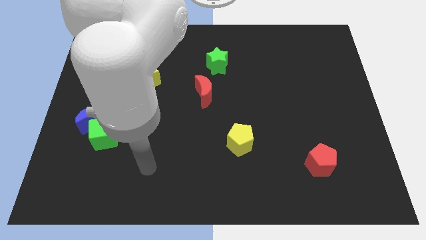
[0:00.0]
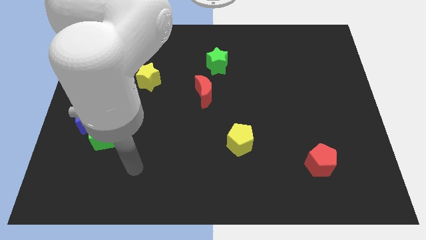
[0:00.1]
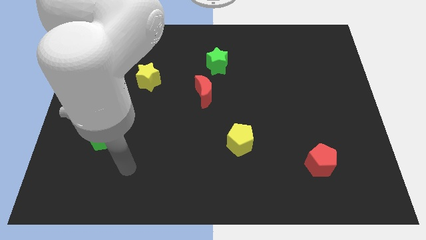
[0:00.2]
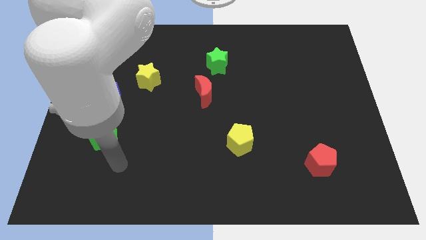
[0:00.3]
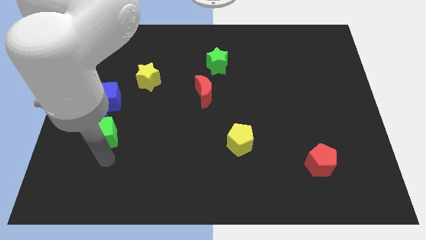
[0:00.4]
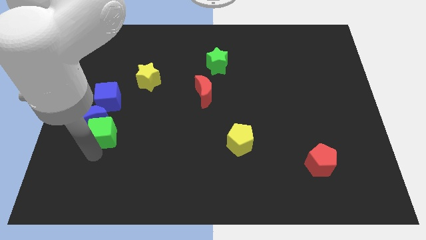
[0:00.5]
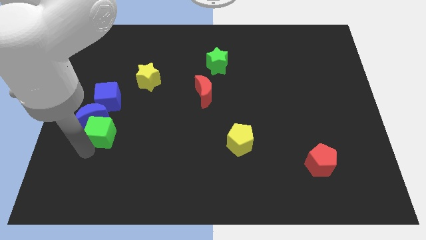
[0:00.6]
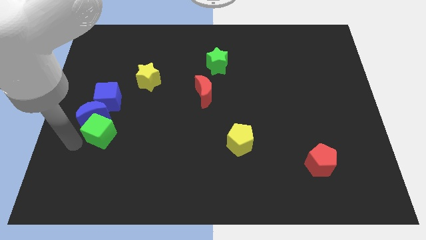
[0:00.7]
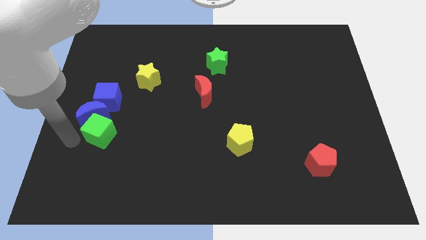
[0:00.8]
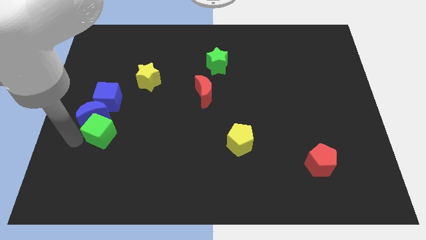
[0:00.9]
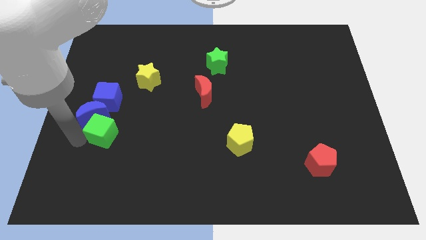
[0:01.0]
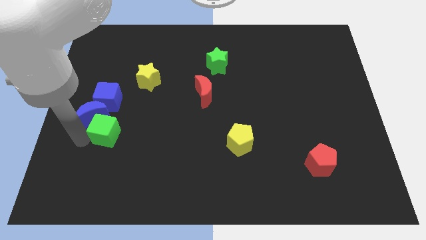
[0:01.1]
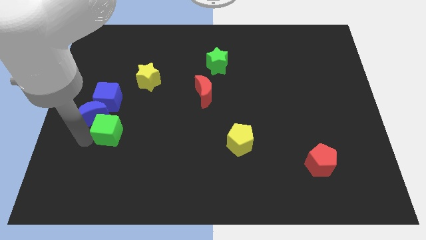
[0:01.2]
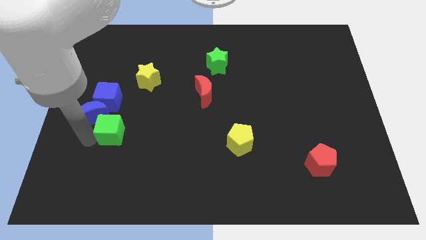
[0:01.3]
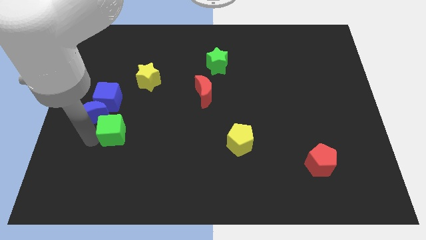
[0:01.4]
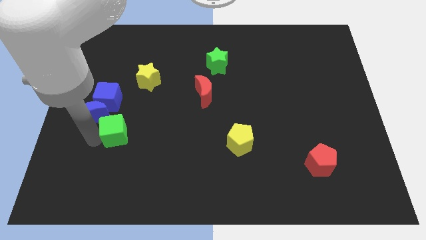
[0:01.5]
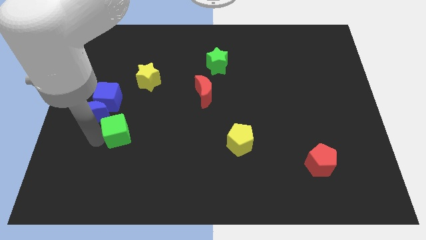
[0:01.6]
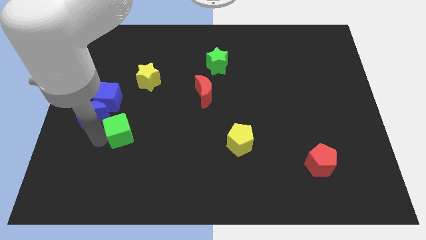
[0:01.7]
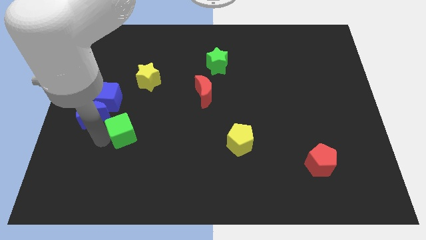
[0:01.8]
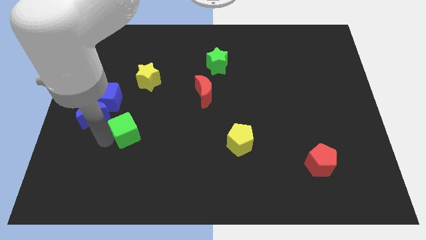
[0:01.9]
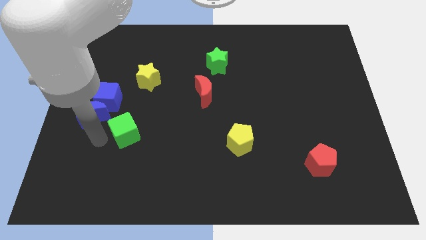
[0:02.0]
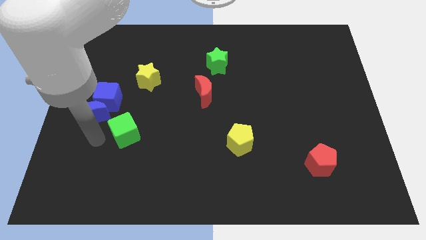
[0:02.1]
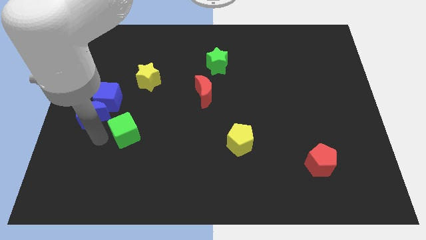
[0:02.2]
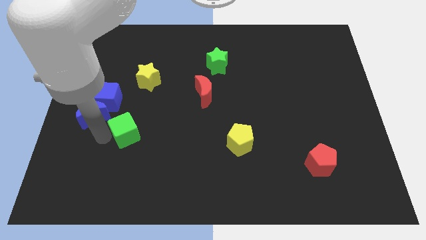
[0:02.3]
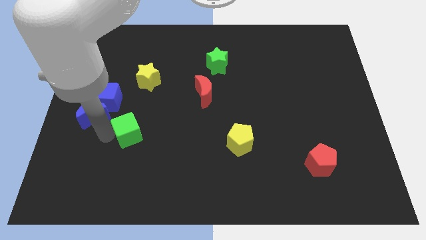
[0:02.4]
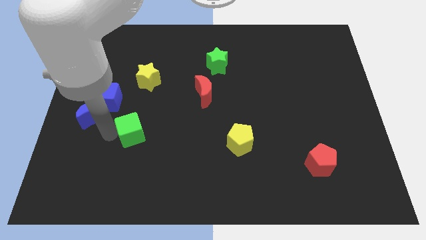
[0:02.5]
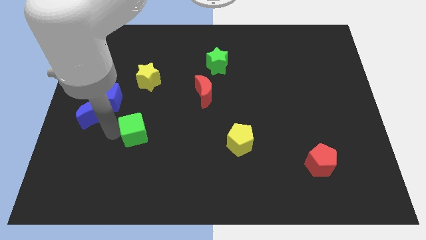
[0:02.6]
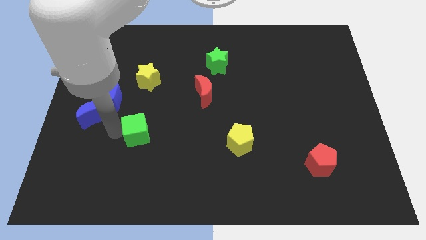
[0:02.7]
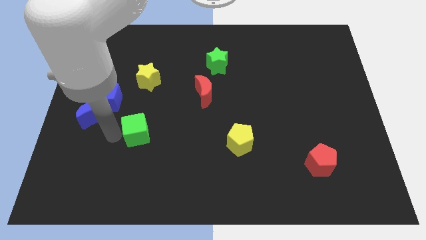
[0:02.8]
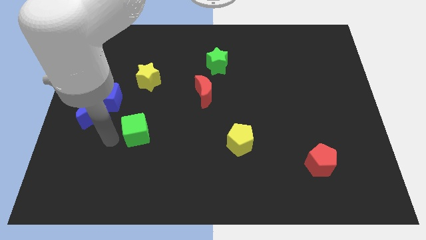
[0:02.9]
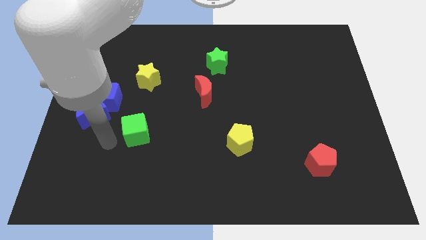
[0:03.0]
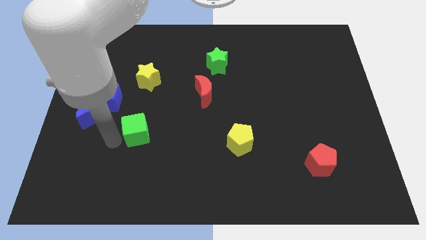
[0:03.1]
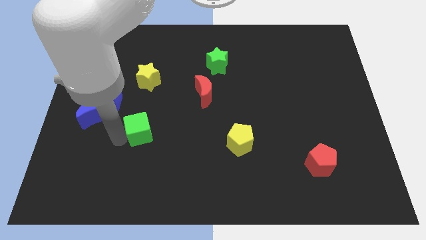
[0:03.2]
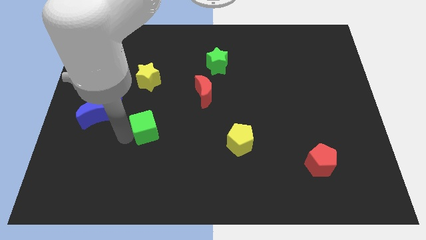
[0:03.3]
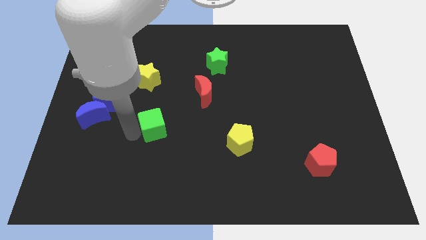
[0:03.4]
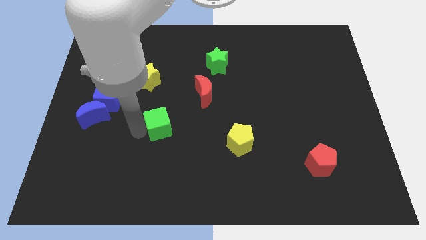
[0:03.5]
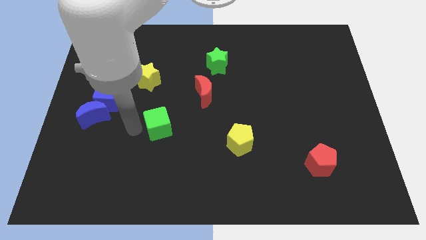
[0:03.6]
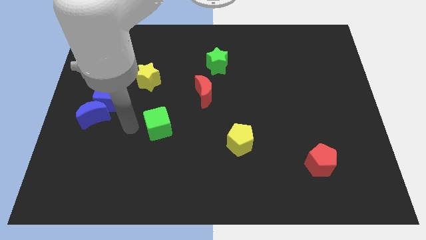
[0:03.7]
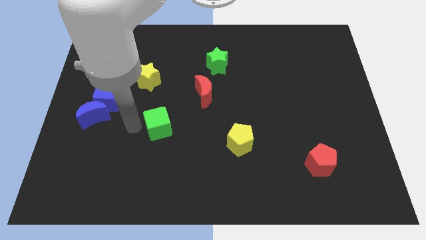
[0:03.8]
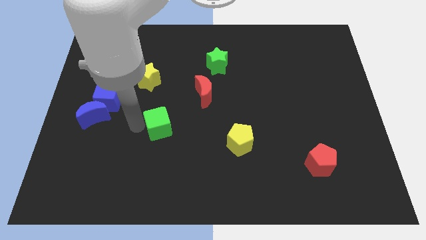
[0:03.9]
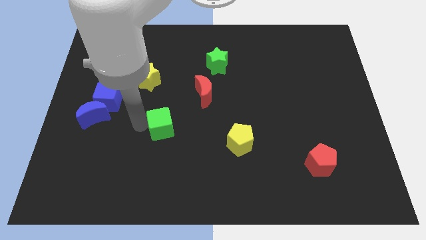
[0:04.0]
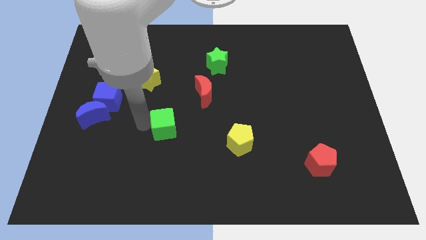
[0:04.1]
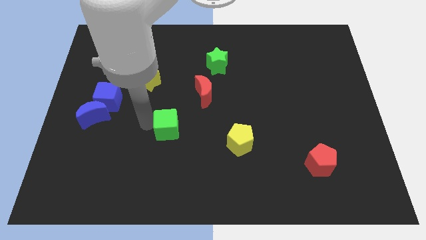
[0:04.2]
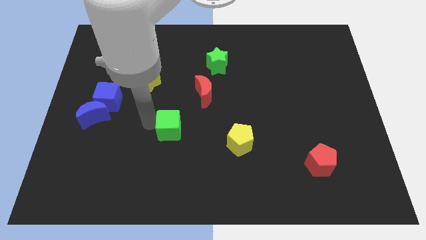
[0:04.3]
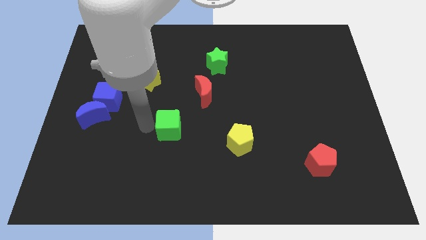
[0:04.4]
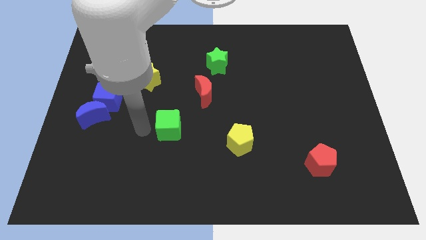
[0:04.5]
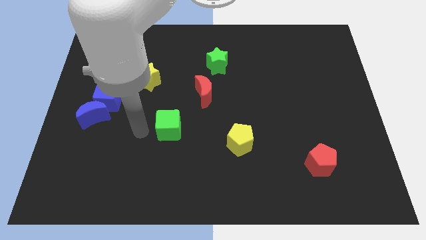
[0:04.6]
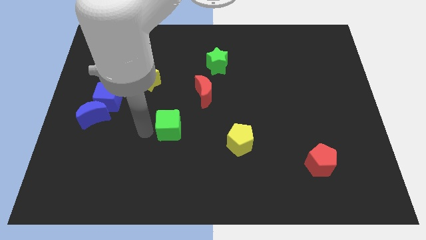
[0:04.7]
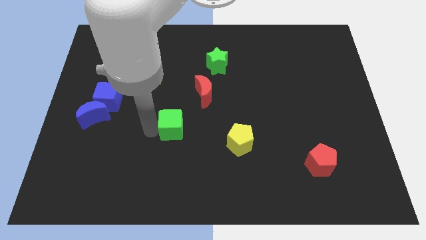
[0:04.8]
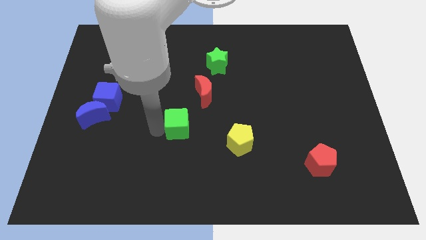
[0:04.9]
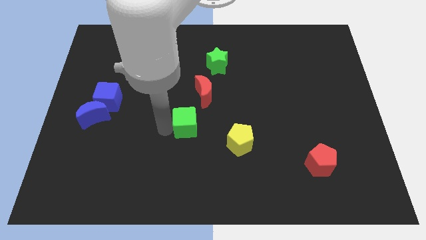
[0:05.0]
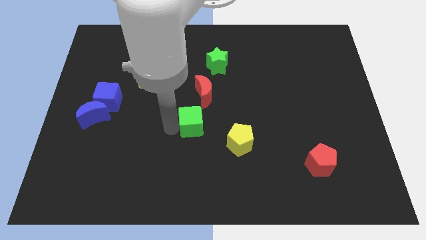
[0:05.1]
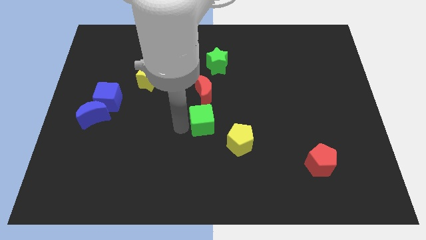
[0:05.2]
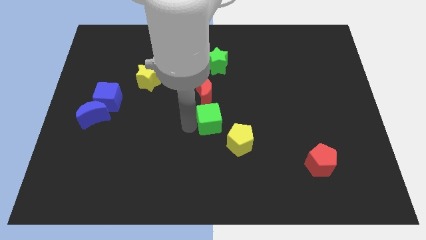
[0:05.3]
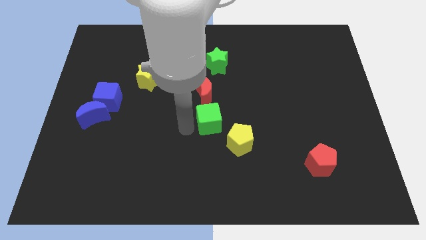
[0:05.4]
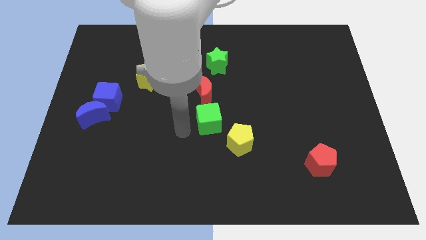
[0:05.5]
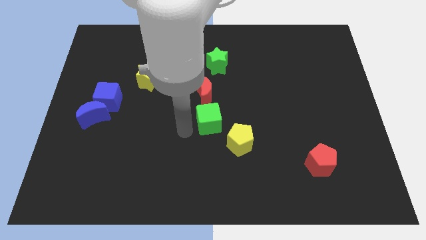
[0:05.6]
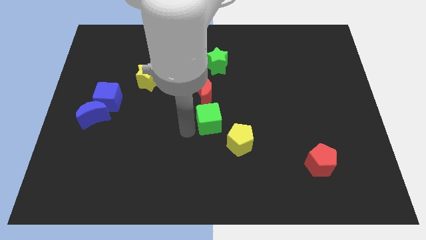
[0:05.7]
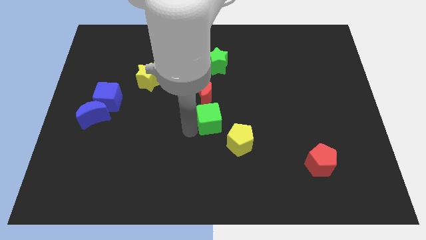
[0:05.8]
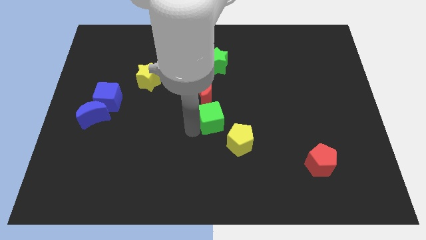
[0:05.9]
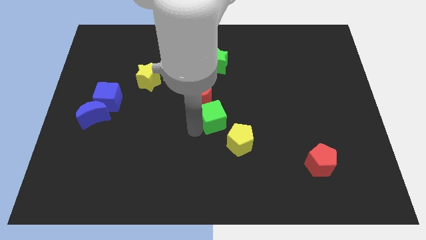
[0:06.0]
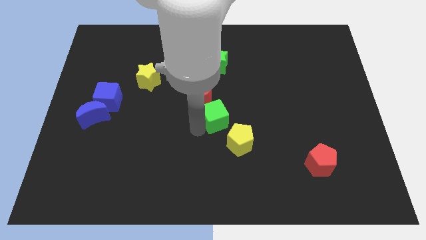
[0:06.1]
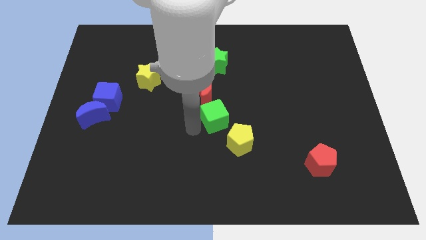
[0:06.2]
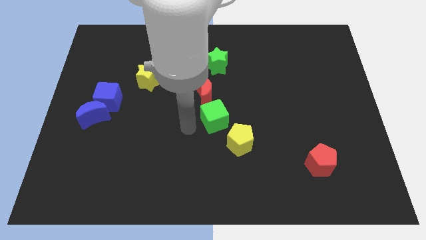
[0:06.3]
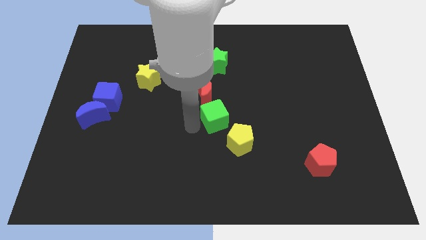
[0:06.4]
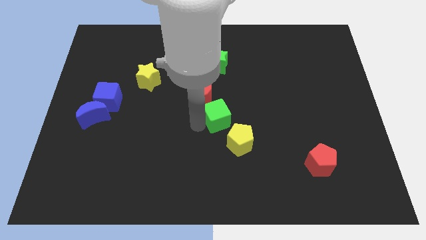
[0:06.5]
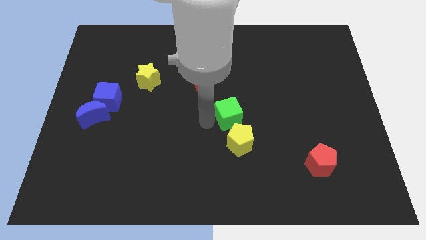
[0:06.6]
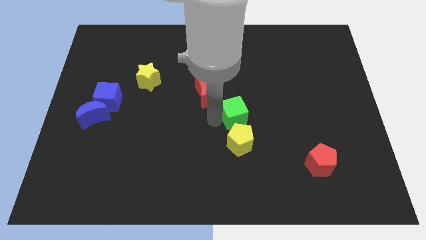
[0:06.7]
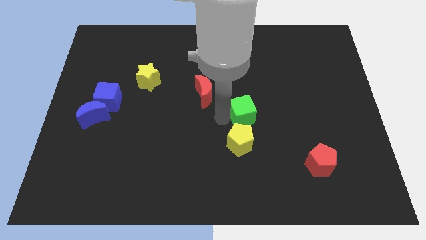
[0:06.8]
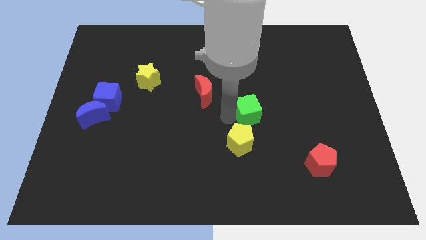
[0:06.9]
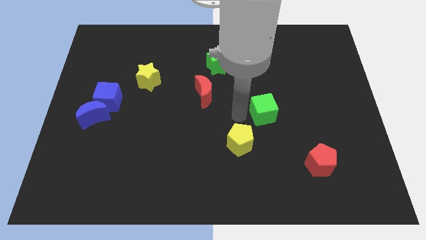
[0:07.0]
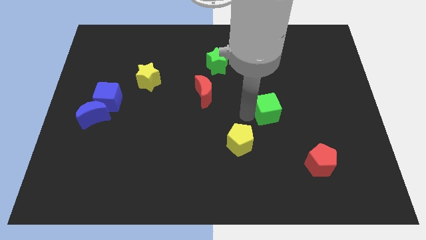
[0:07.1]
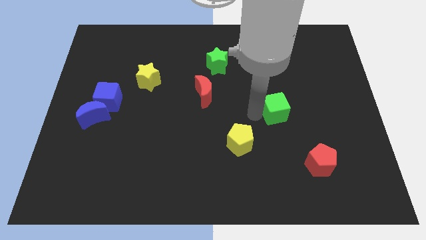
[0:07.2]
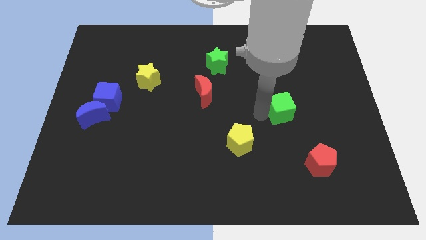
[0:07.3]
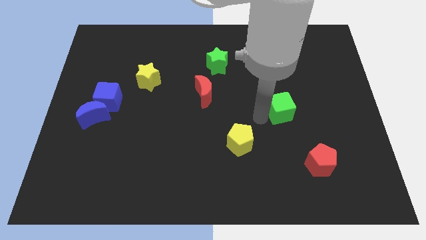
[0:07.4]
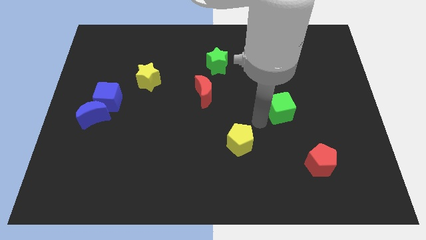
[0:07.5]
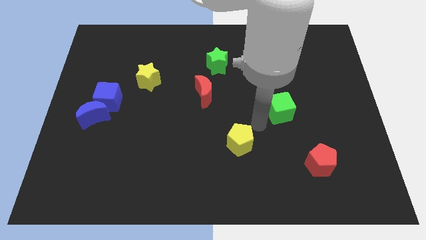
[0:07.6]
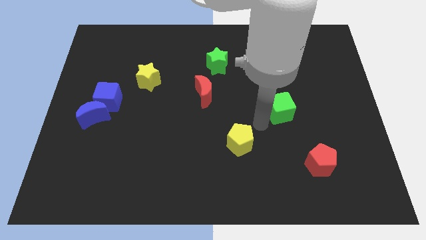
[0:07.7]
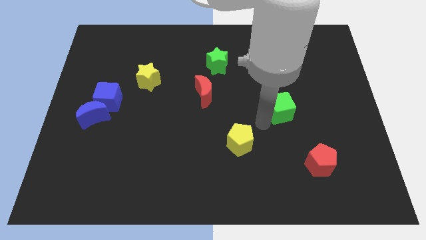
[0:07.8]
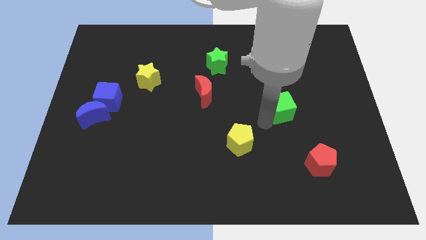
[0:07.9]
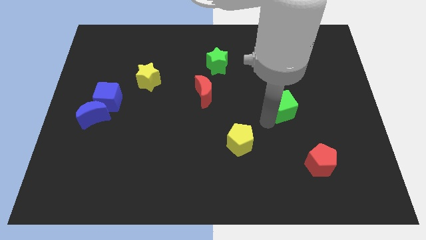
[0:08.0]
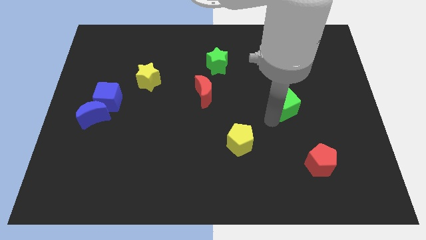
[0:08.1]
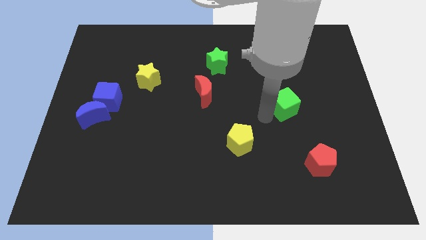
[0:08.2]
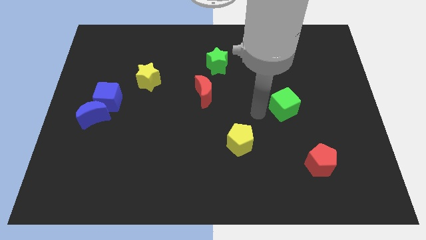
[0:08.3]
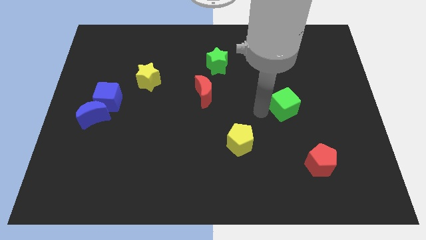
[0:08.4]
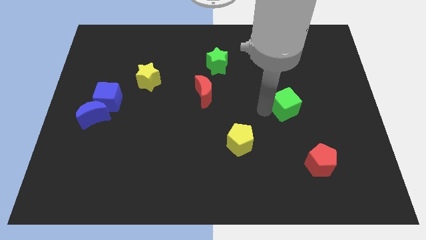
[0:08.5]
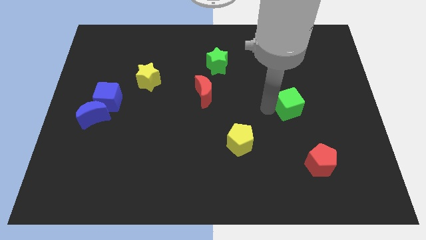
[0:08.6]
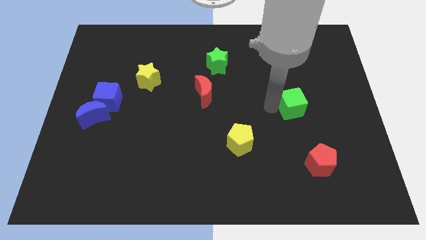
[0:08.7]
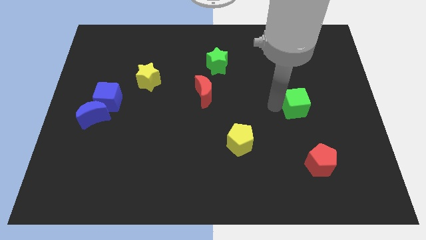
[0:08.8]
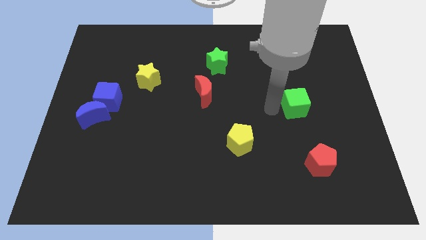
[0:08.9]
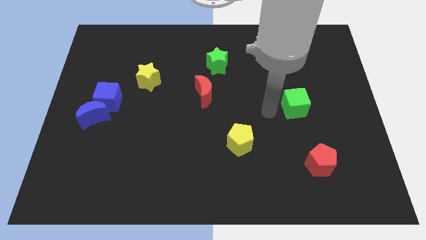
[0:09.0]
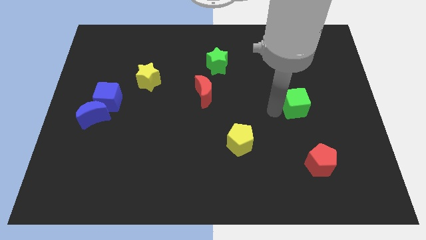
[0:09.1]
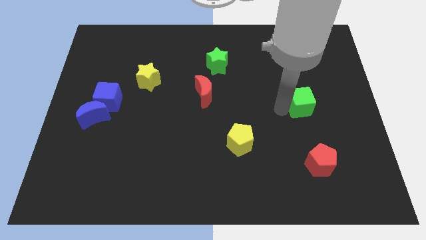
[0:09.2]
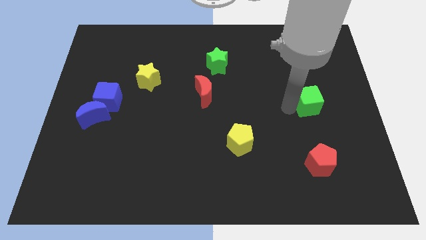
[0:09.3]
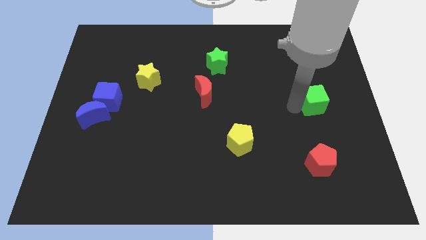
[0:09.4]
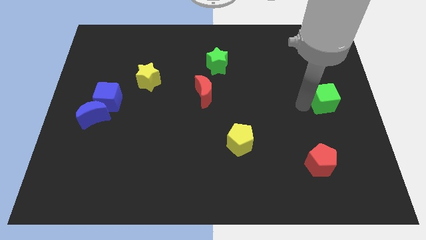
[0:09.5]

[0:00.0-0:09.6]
put the green cube to the right side
